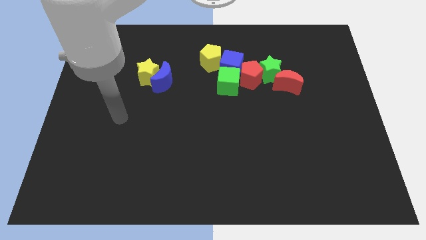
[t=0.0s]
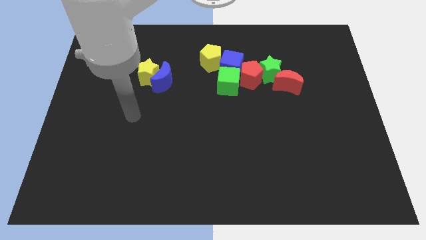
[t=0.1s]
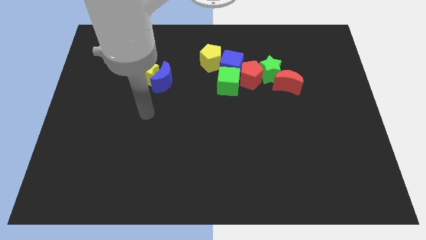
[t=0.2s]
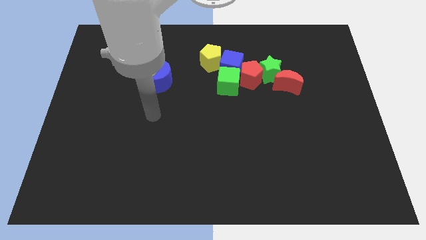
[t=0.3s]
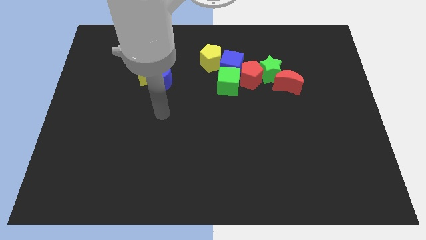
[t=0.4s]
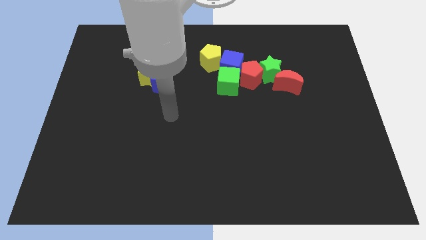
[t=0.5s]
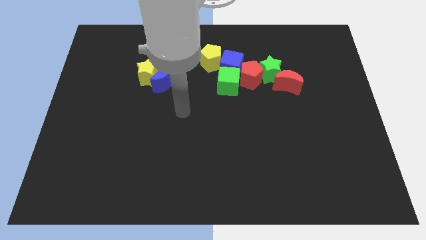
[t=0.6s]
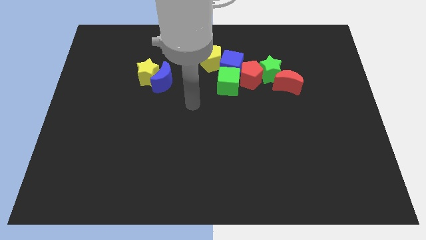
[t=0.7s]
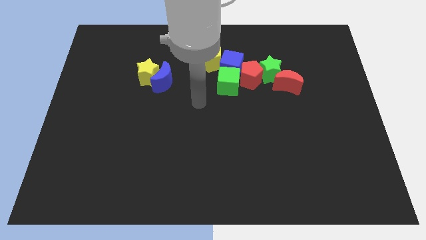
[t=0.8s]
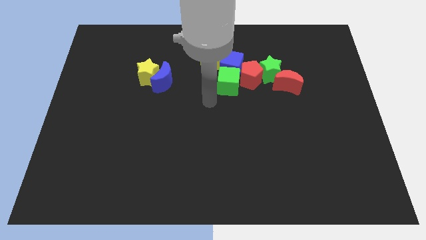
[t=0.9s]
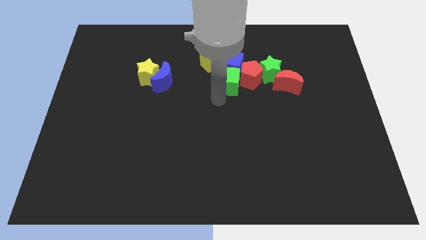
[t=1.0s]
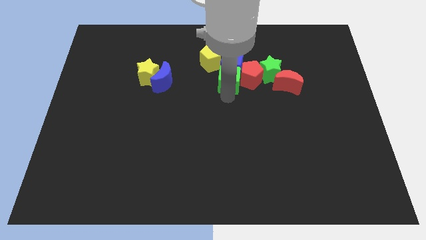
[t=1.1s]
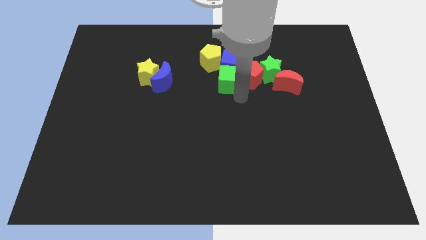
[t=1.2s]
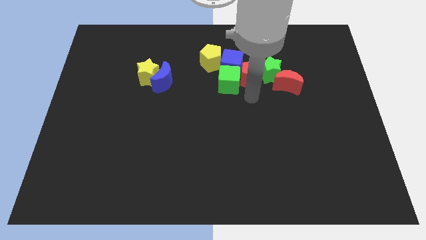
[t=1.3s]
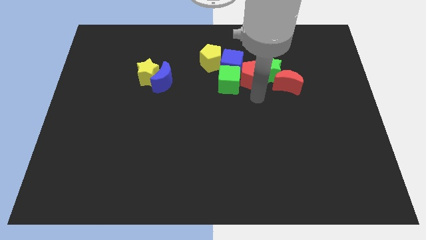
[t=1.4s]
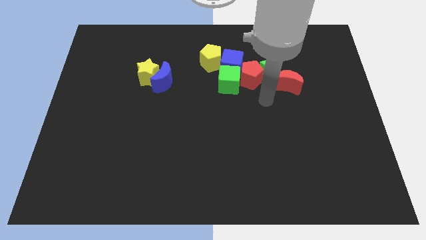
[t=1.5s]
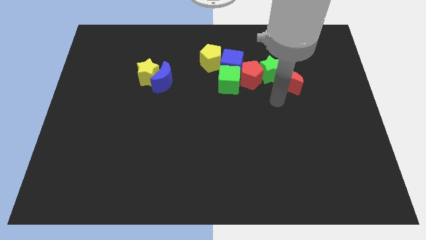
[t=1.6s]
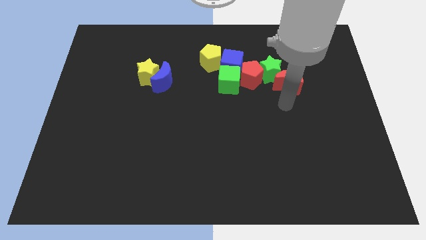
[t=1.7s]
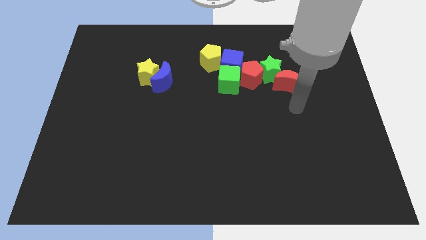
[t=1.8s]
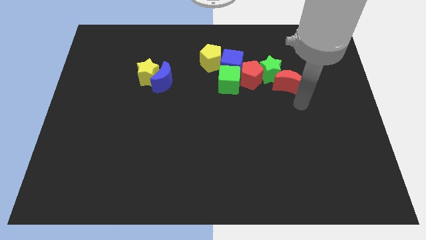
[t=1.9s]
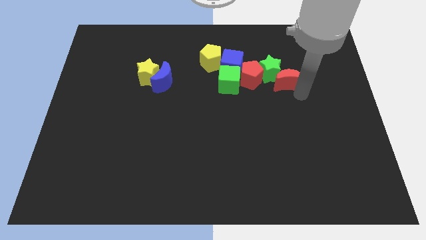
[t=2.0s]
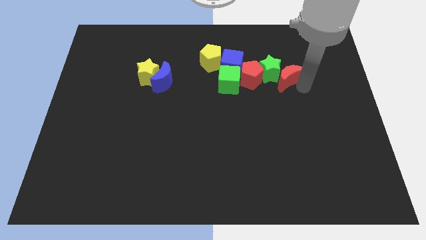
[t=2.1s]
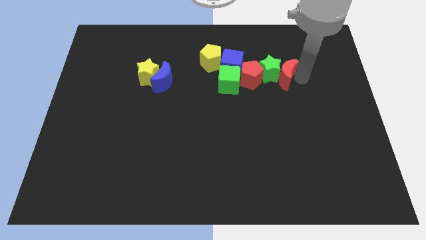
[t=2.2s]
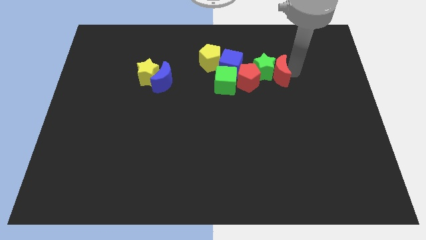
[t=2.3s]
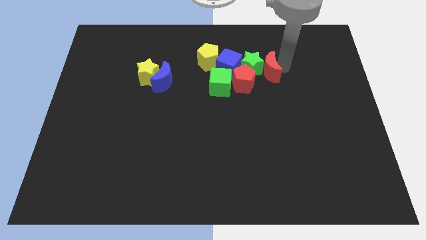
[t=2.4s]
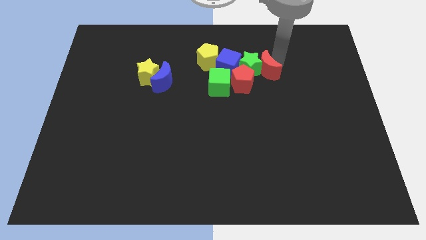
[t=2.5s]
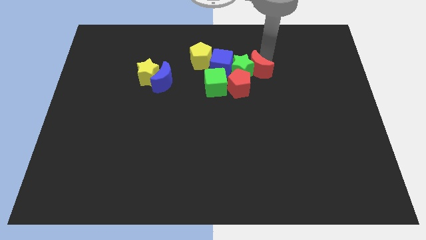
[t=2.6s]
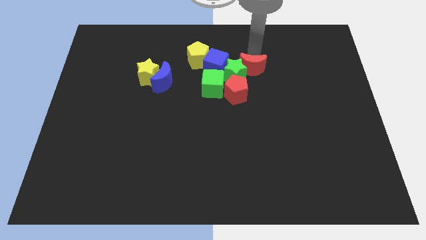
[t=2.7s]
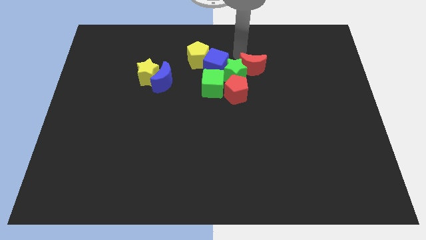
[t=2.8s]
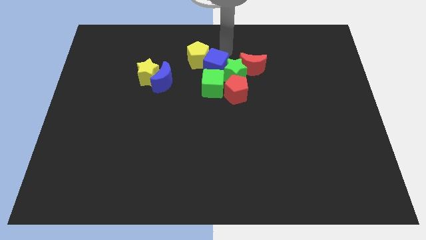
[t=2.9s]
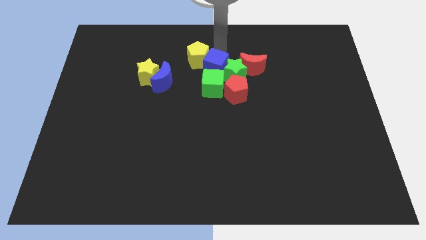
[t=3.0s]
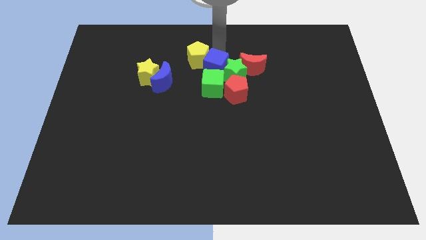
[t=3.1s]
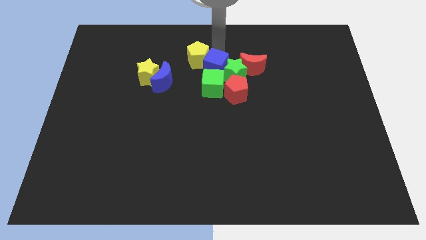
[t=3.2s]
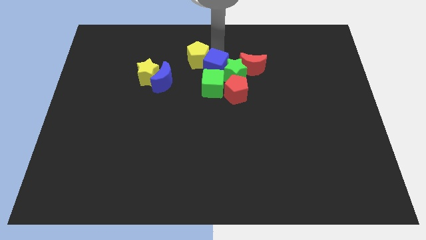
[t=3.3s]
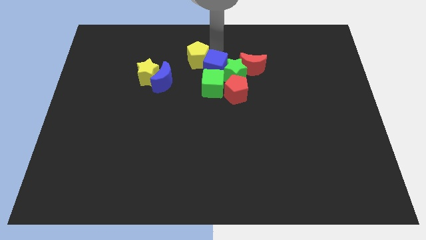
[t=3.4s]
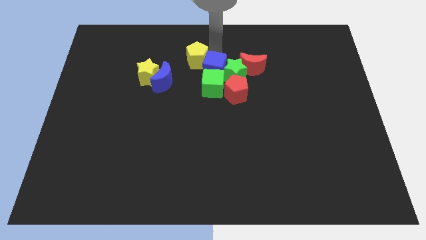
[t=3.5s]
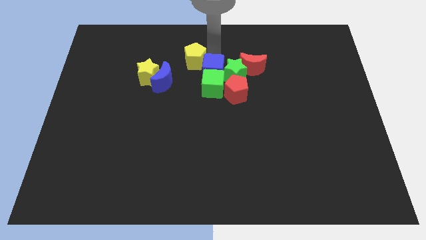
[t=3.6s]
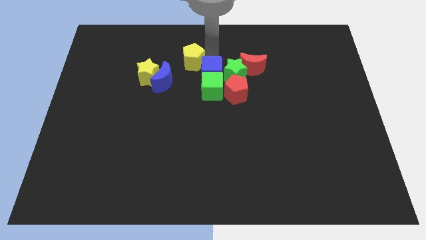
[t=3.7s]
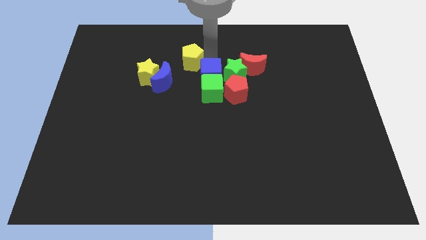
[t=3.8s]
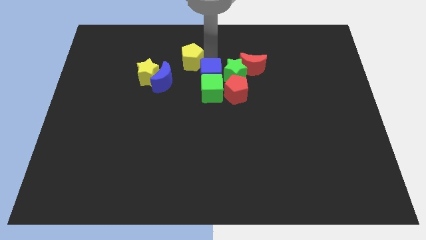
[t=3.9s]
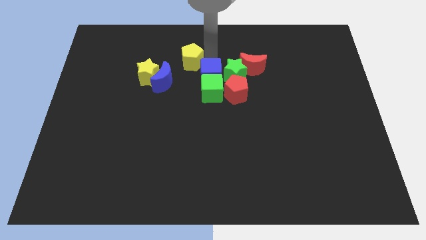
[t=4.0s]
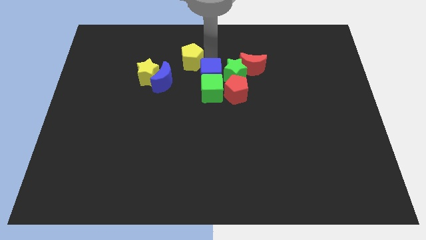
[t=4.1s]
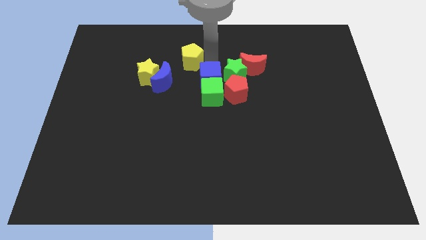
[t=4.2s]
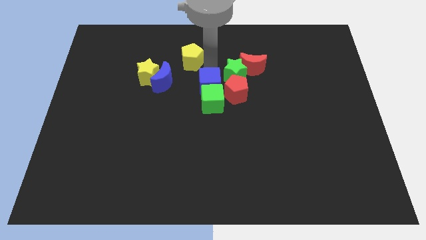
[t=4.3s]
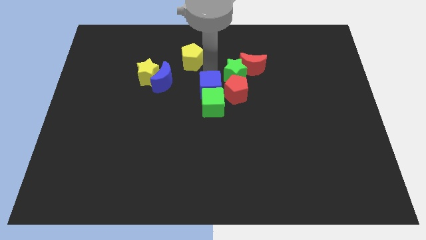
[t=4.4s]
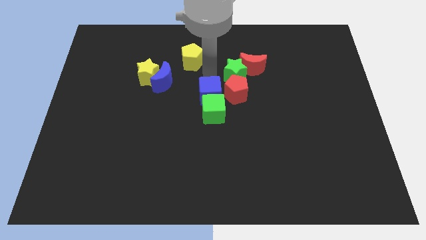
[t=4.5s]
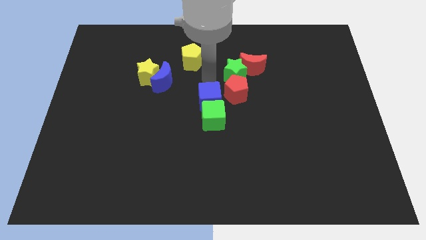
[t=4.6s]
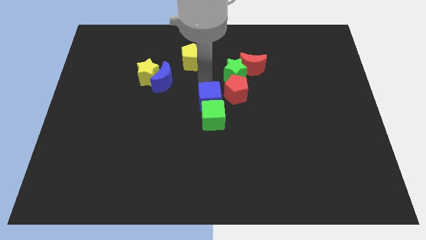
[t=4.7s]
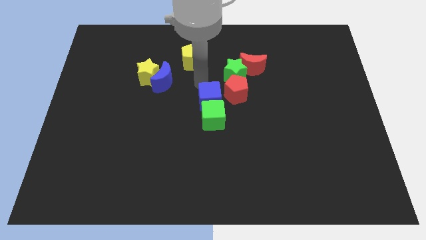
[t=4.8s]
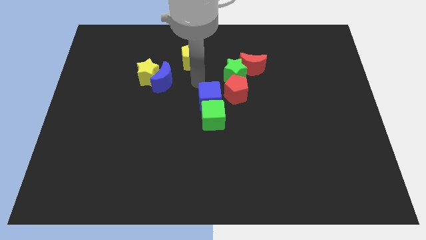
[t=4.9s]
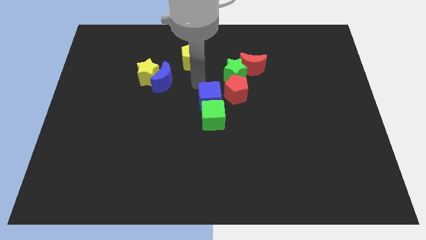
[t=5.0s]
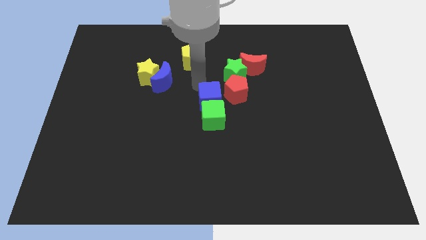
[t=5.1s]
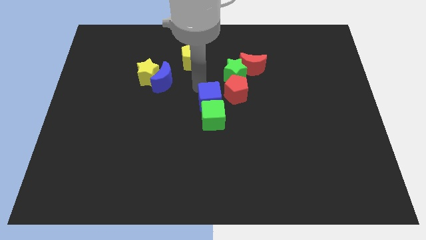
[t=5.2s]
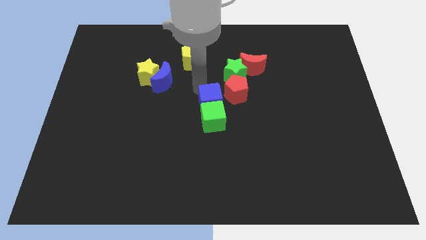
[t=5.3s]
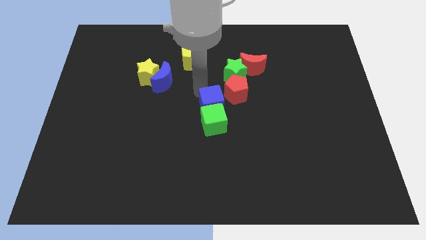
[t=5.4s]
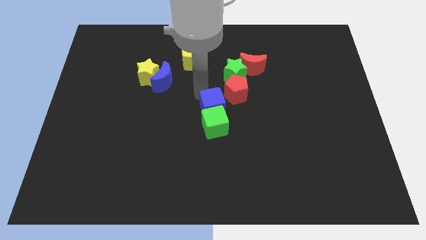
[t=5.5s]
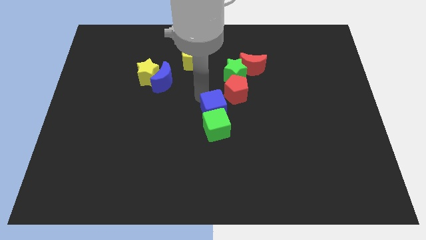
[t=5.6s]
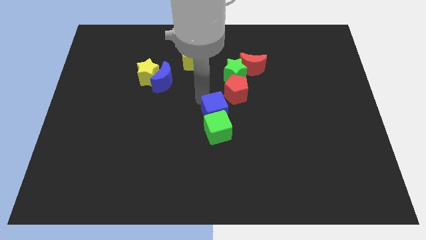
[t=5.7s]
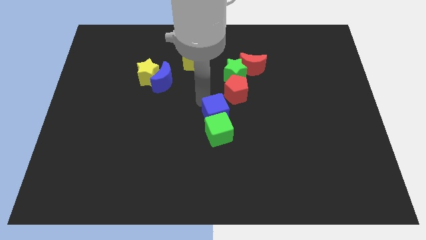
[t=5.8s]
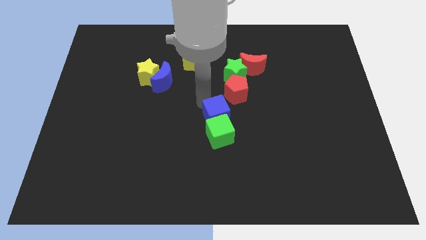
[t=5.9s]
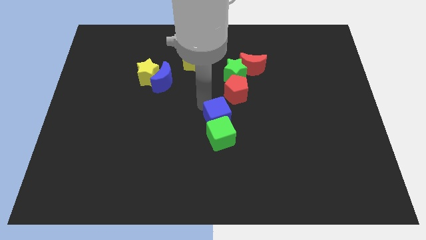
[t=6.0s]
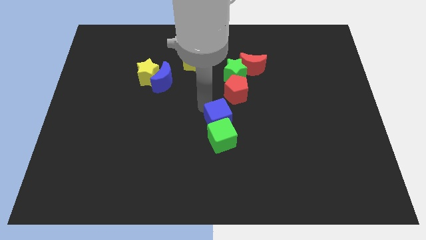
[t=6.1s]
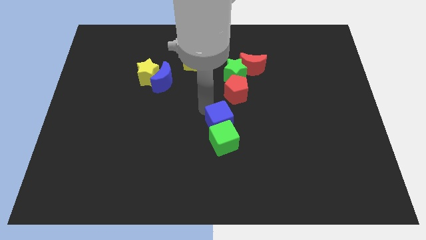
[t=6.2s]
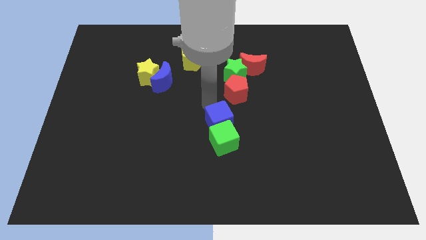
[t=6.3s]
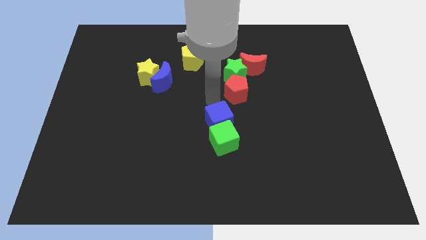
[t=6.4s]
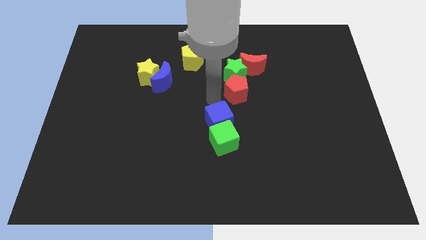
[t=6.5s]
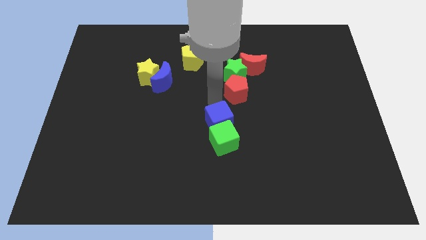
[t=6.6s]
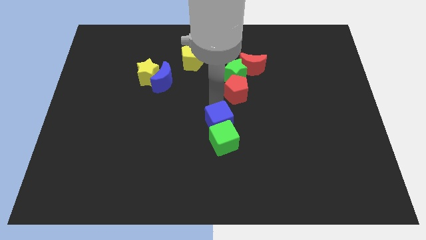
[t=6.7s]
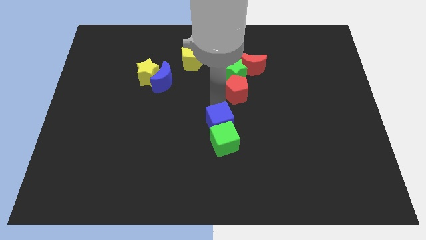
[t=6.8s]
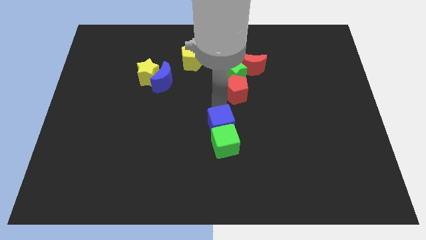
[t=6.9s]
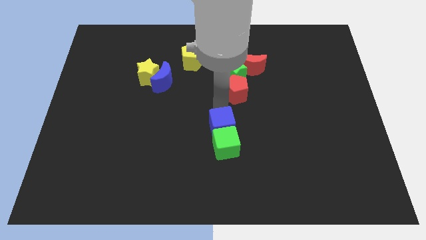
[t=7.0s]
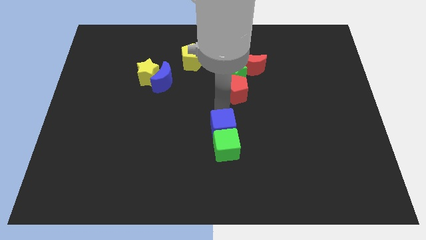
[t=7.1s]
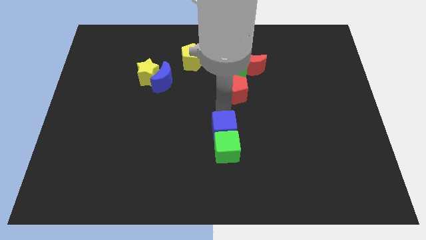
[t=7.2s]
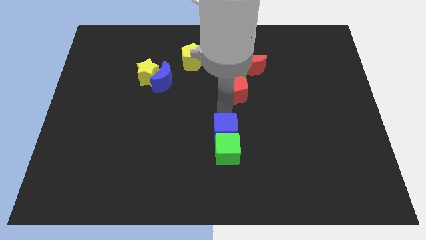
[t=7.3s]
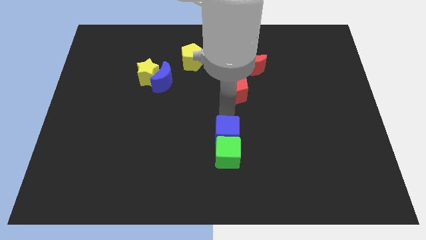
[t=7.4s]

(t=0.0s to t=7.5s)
slide the blue cube downwards

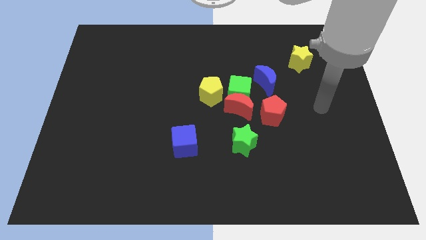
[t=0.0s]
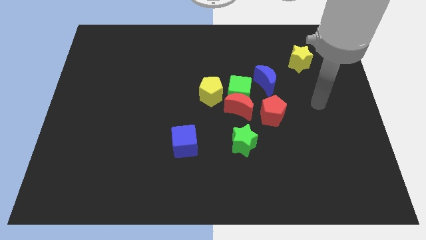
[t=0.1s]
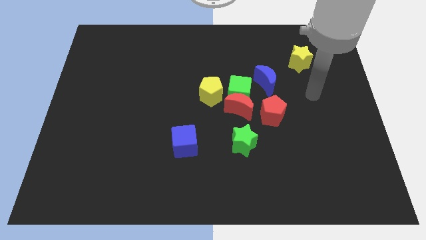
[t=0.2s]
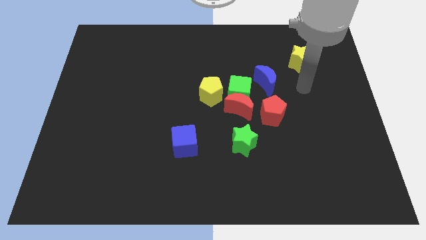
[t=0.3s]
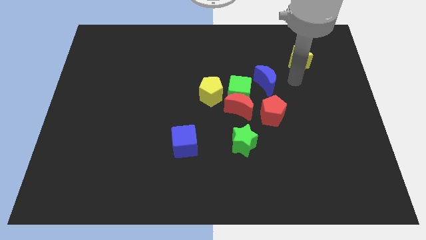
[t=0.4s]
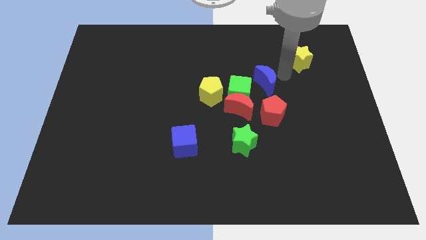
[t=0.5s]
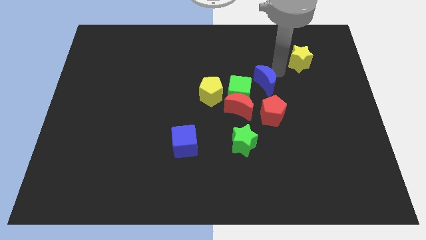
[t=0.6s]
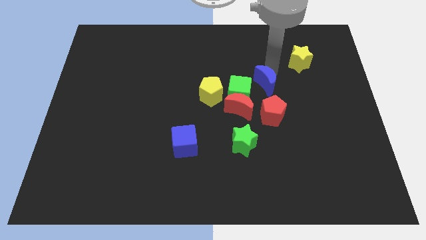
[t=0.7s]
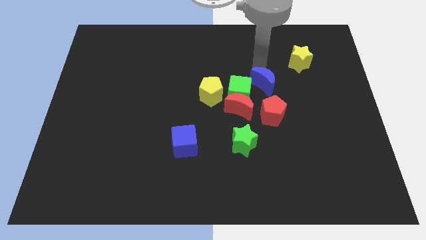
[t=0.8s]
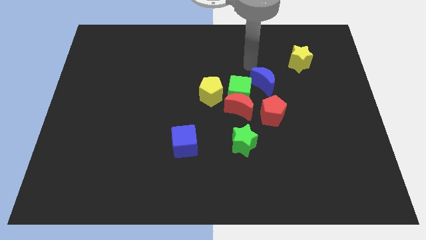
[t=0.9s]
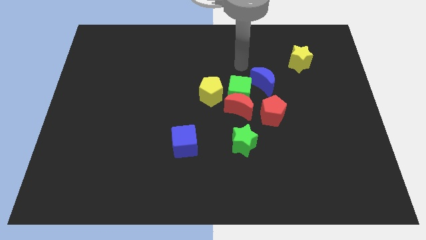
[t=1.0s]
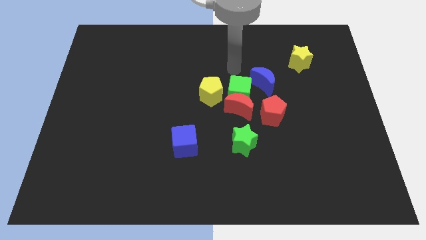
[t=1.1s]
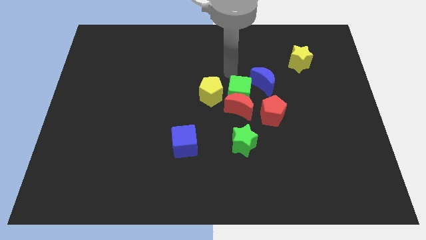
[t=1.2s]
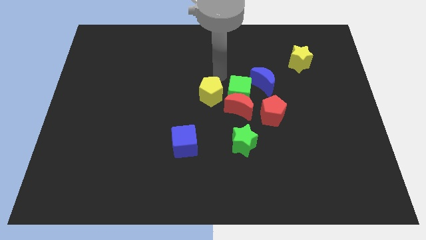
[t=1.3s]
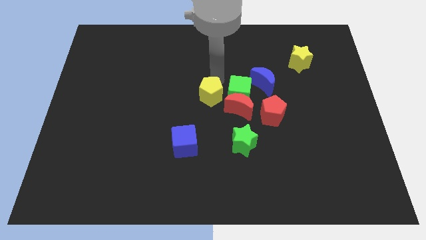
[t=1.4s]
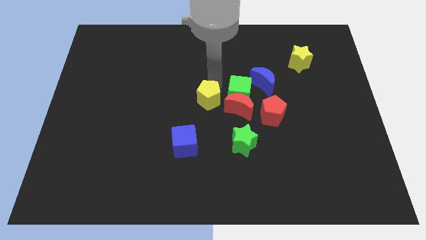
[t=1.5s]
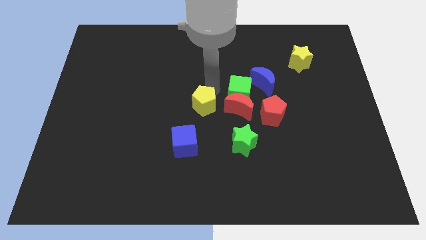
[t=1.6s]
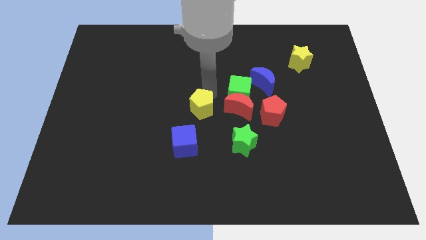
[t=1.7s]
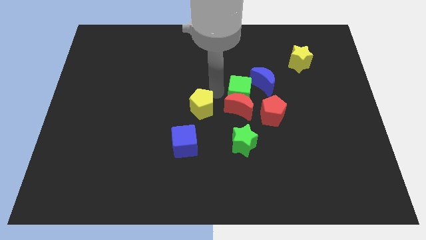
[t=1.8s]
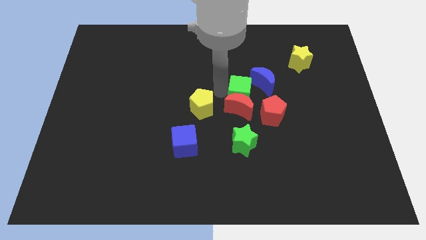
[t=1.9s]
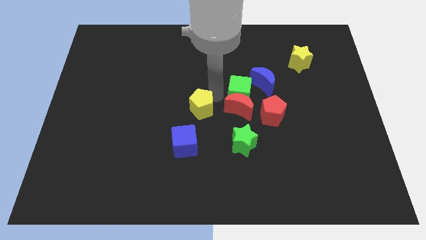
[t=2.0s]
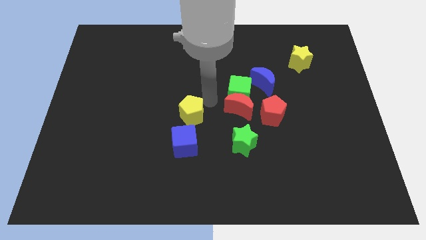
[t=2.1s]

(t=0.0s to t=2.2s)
move the yellow pentagon downwards and to the left a little
